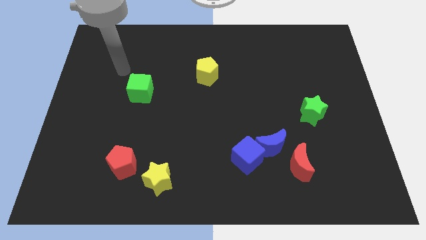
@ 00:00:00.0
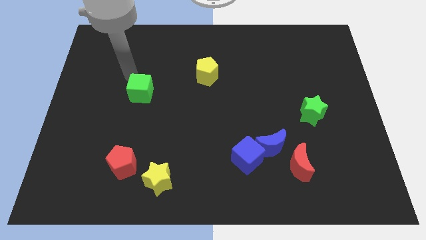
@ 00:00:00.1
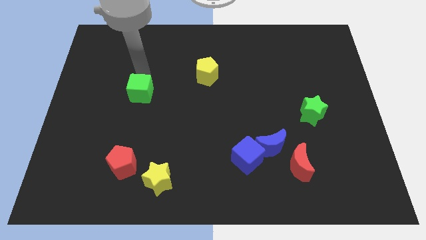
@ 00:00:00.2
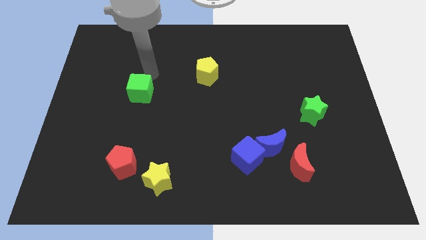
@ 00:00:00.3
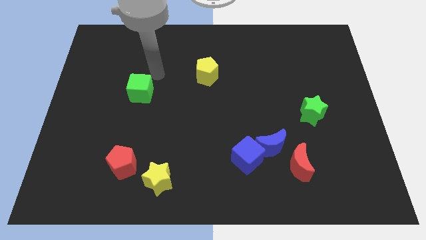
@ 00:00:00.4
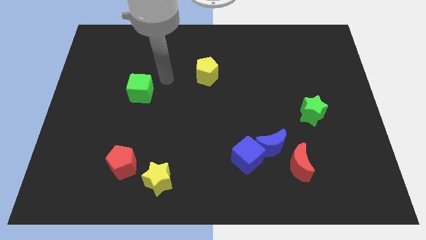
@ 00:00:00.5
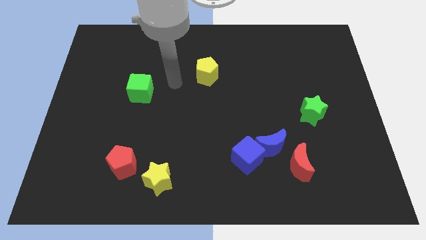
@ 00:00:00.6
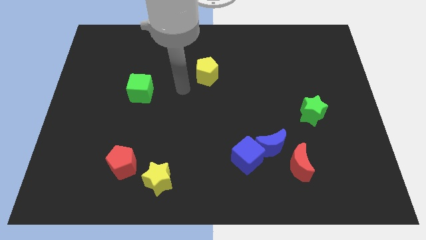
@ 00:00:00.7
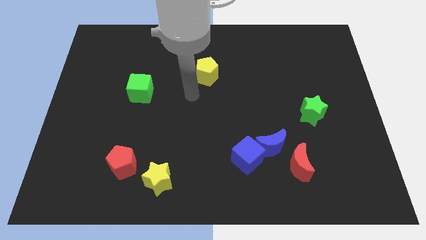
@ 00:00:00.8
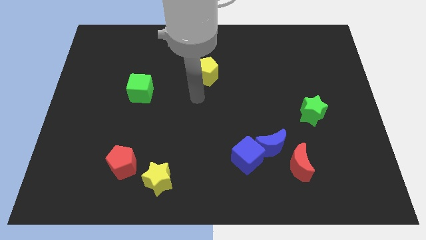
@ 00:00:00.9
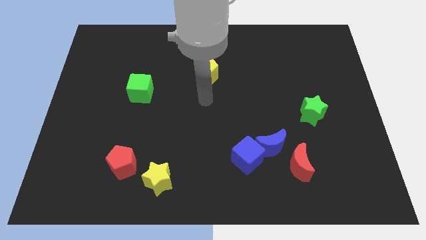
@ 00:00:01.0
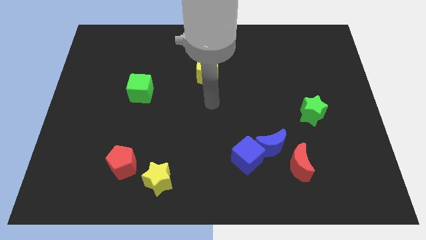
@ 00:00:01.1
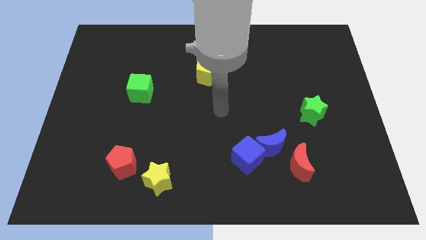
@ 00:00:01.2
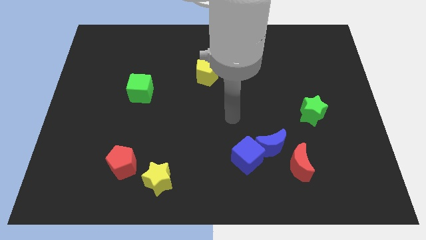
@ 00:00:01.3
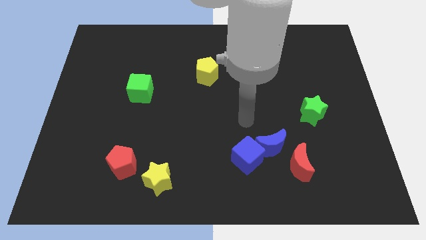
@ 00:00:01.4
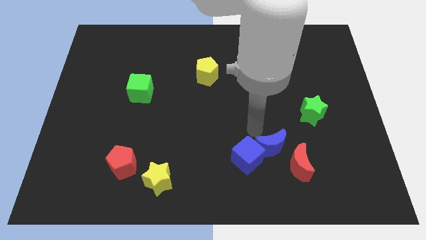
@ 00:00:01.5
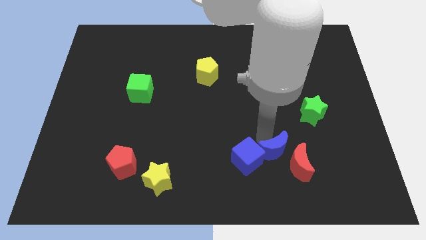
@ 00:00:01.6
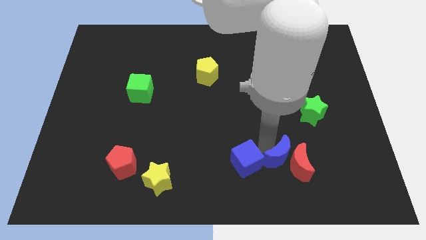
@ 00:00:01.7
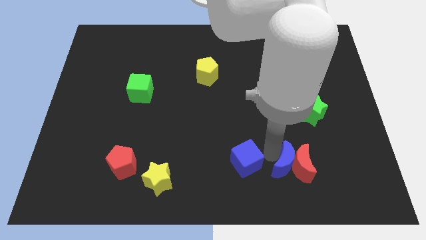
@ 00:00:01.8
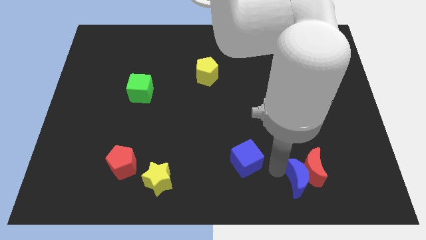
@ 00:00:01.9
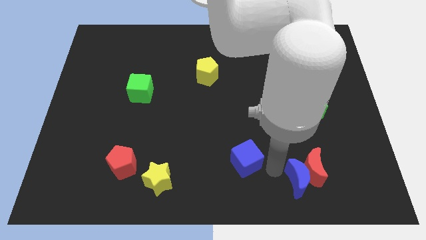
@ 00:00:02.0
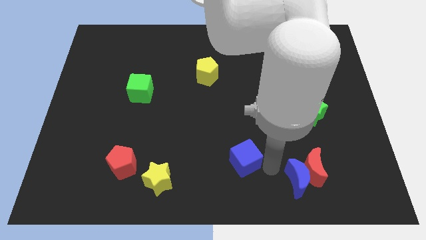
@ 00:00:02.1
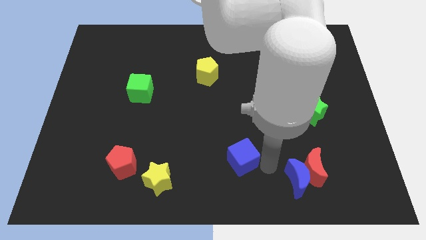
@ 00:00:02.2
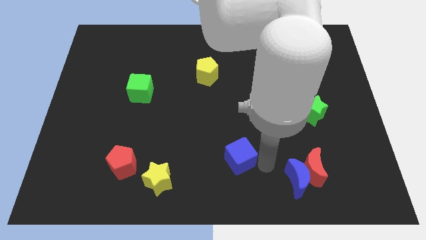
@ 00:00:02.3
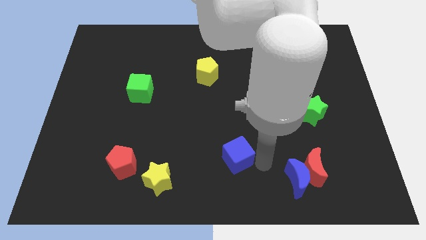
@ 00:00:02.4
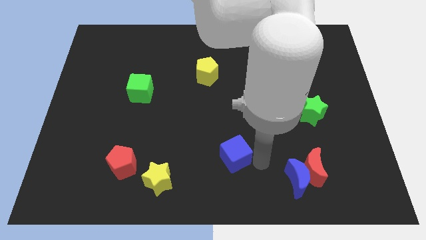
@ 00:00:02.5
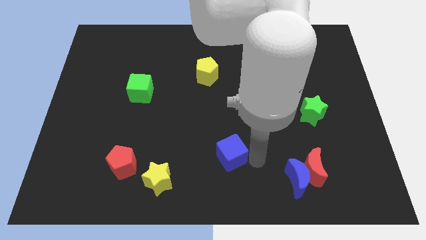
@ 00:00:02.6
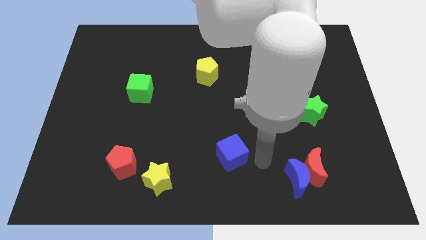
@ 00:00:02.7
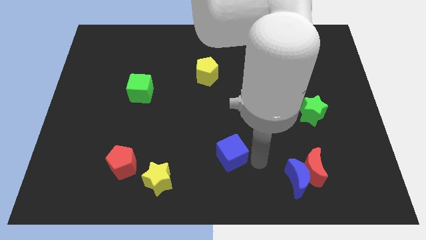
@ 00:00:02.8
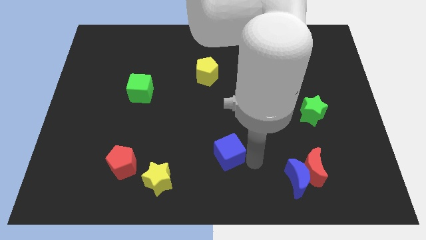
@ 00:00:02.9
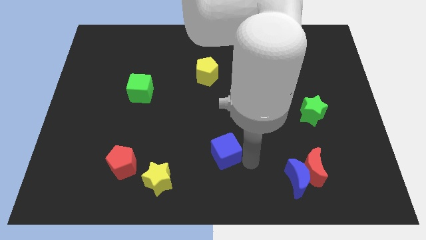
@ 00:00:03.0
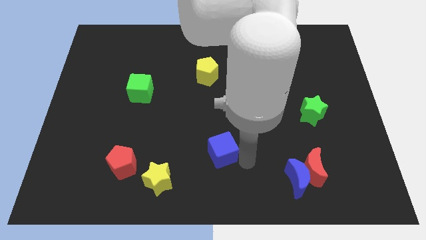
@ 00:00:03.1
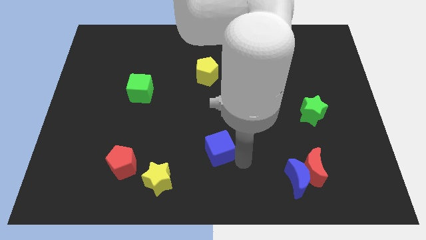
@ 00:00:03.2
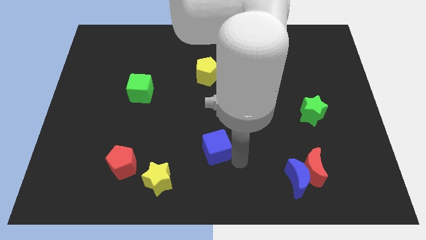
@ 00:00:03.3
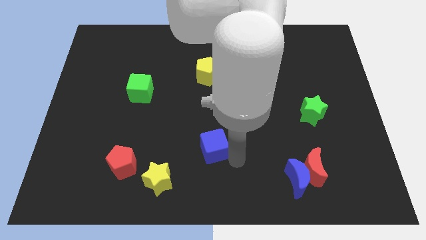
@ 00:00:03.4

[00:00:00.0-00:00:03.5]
slide the blue cube a little bit left

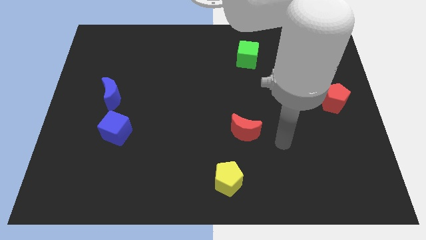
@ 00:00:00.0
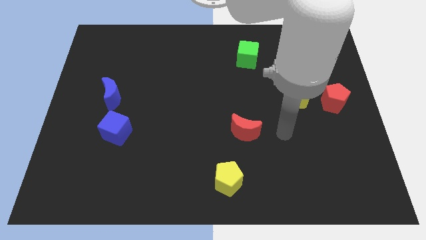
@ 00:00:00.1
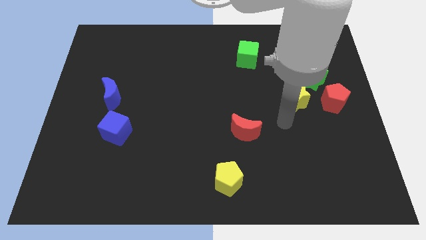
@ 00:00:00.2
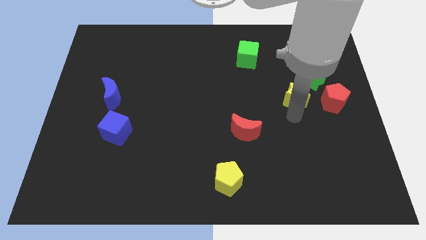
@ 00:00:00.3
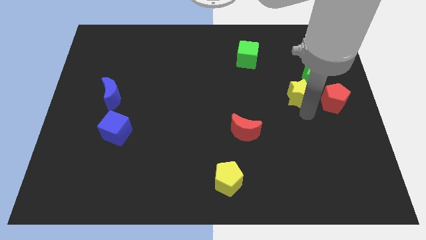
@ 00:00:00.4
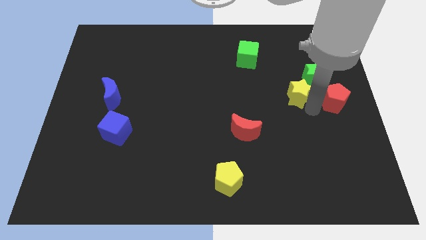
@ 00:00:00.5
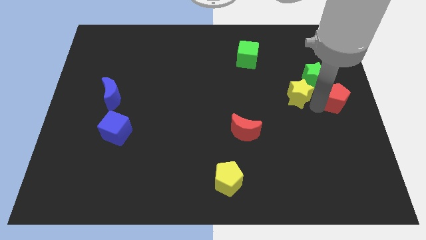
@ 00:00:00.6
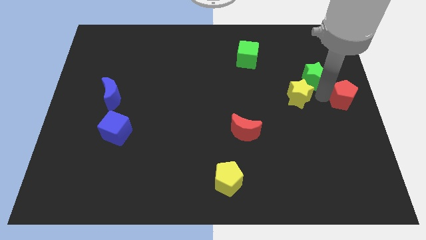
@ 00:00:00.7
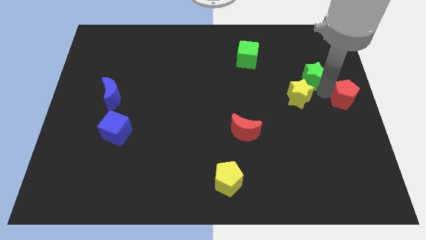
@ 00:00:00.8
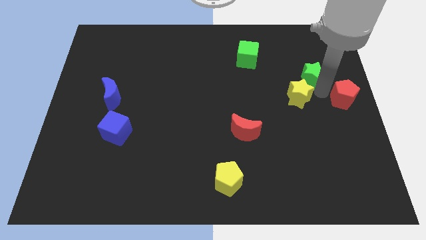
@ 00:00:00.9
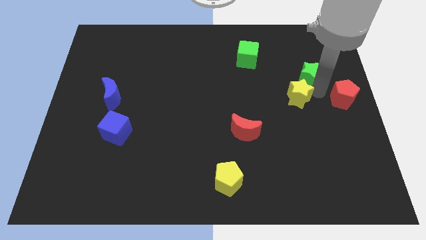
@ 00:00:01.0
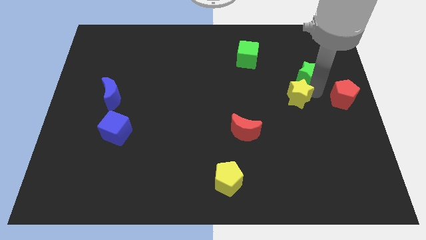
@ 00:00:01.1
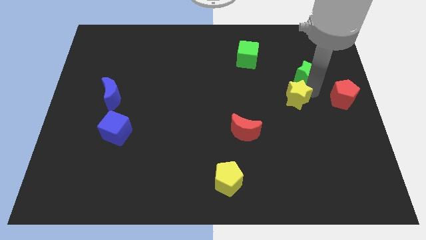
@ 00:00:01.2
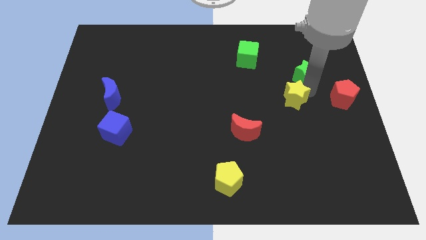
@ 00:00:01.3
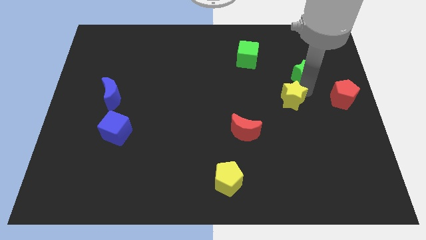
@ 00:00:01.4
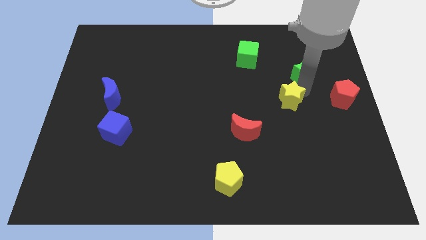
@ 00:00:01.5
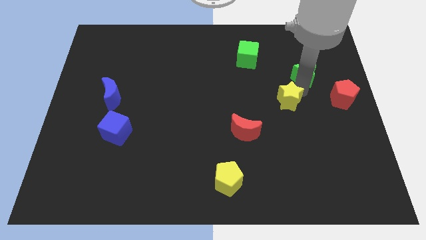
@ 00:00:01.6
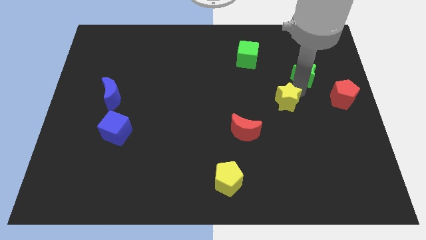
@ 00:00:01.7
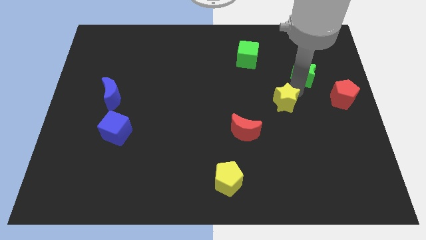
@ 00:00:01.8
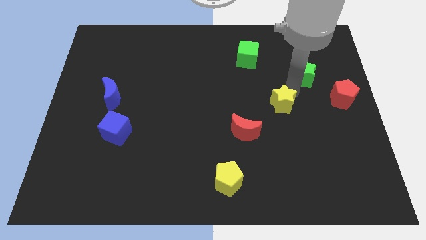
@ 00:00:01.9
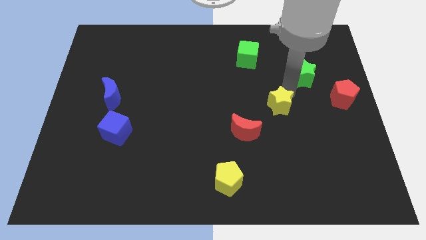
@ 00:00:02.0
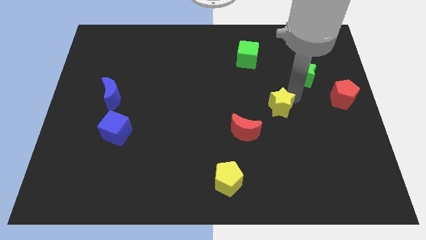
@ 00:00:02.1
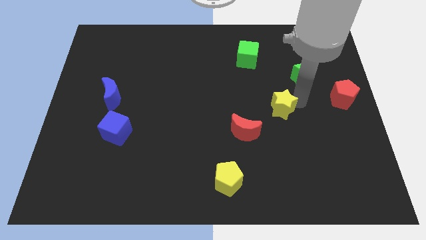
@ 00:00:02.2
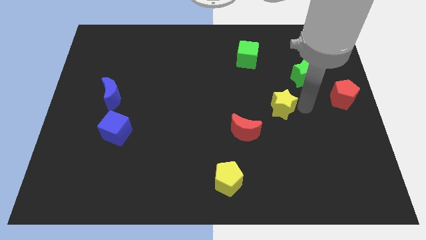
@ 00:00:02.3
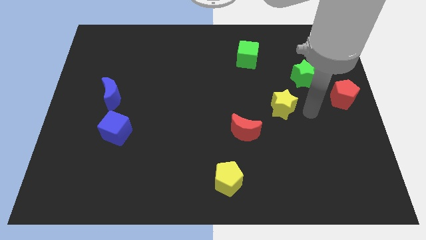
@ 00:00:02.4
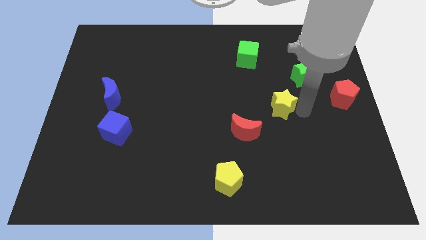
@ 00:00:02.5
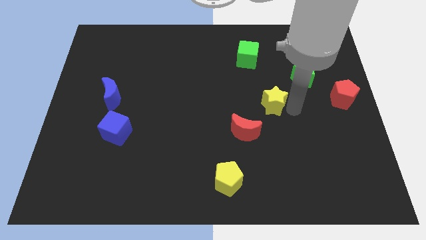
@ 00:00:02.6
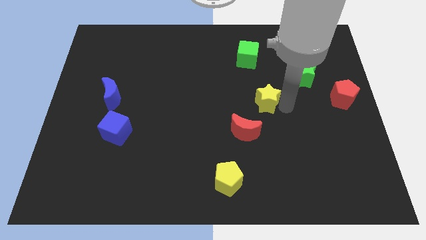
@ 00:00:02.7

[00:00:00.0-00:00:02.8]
slightly move the yellow star to the left

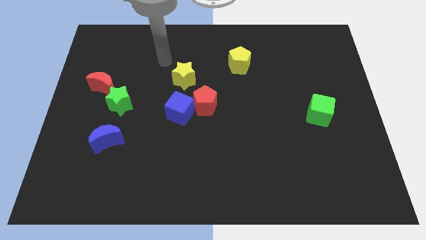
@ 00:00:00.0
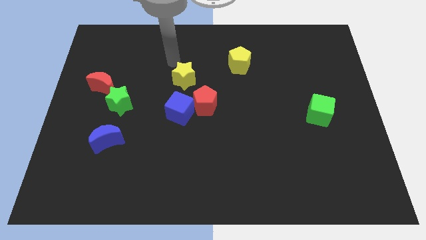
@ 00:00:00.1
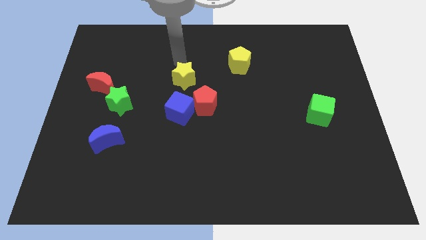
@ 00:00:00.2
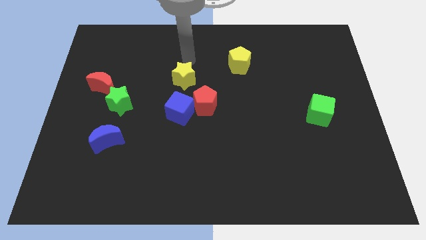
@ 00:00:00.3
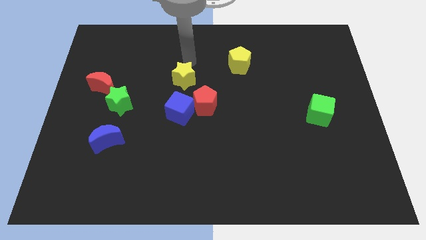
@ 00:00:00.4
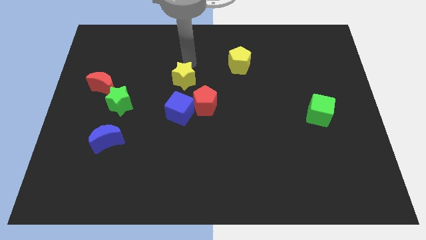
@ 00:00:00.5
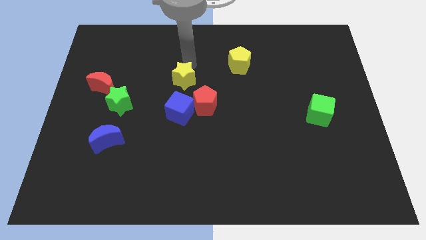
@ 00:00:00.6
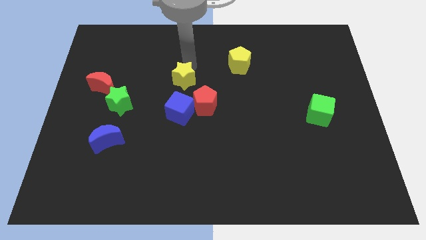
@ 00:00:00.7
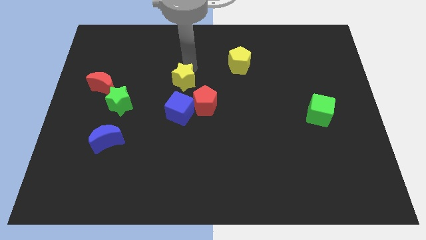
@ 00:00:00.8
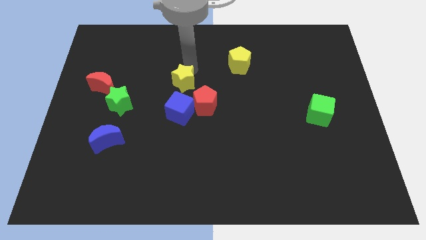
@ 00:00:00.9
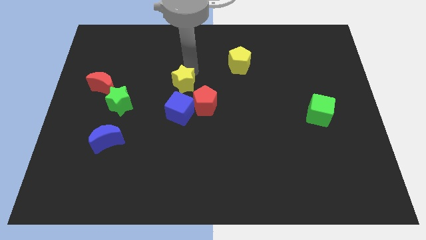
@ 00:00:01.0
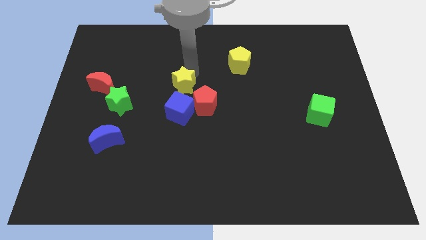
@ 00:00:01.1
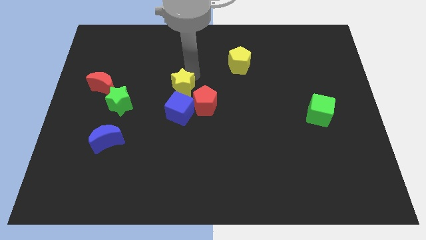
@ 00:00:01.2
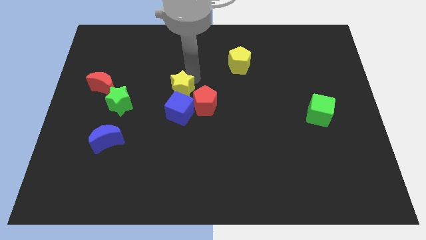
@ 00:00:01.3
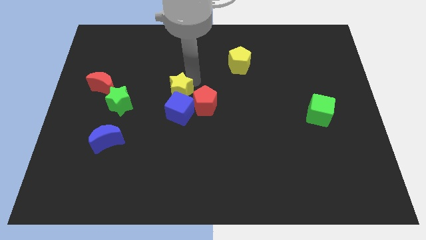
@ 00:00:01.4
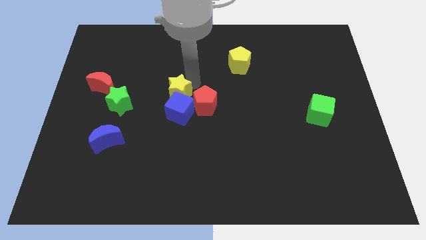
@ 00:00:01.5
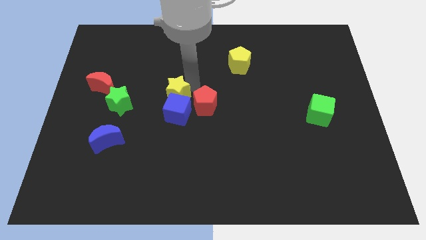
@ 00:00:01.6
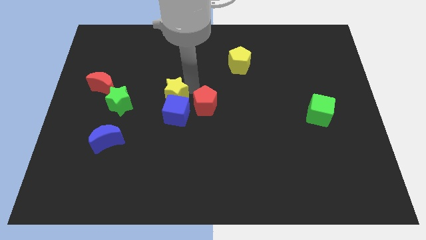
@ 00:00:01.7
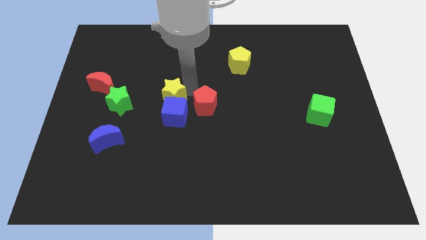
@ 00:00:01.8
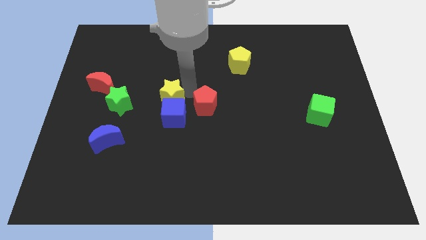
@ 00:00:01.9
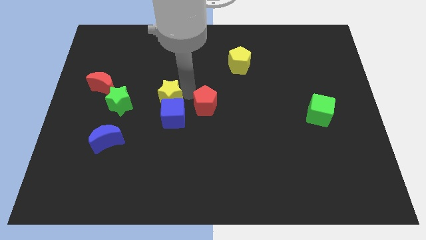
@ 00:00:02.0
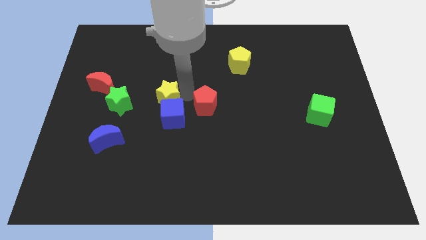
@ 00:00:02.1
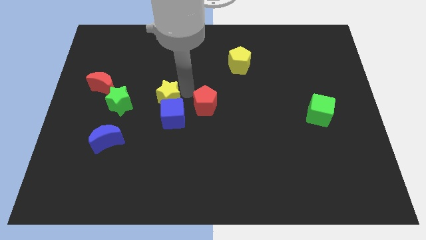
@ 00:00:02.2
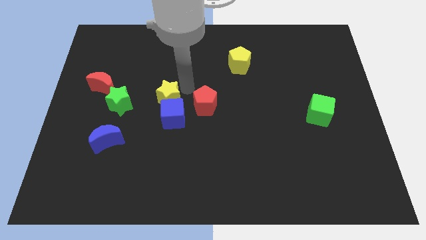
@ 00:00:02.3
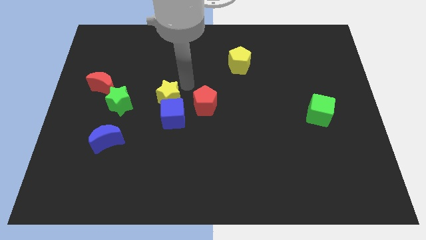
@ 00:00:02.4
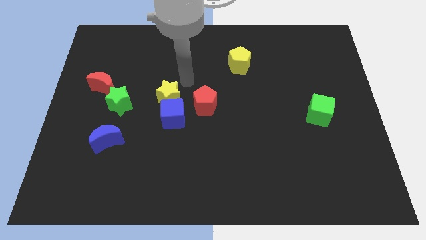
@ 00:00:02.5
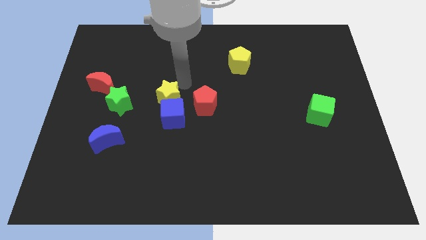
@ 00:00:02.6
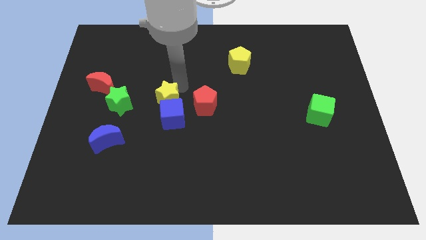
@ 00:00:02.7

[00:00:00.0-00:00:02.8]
move the yellow star diagonally downwards and left a little bit
